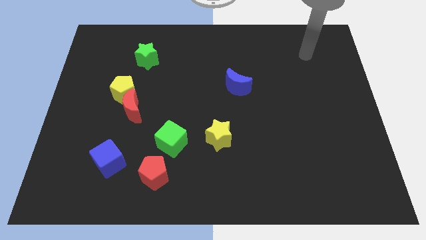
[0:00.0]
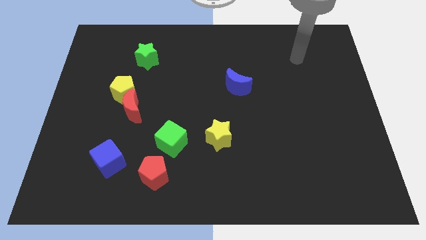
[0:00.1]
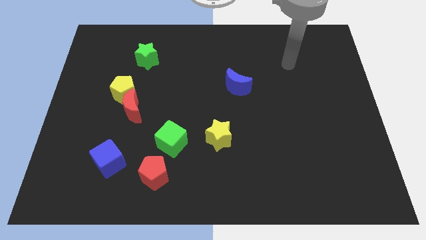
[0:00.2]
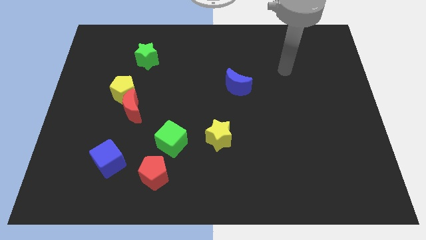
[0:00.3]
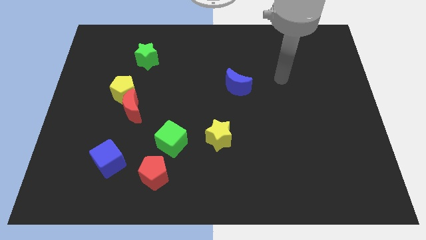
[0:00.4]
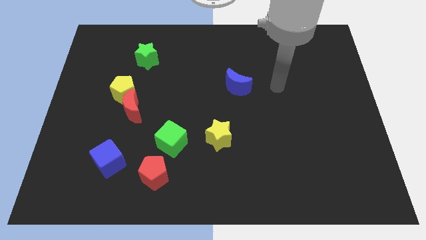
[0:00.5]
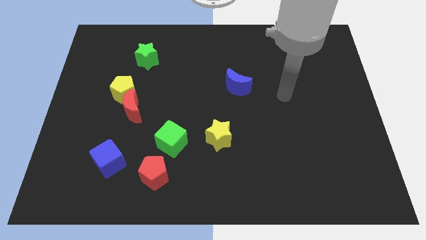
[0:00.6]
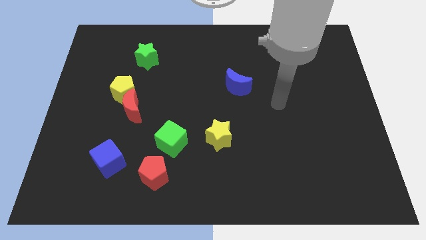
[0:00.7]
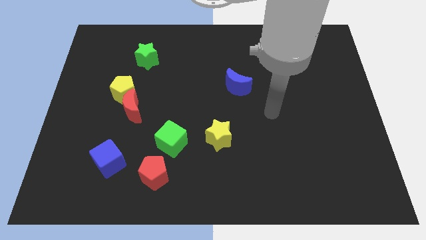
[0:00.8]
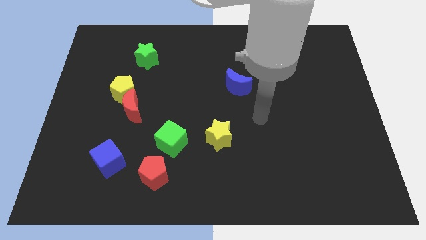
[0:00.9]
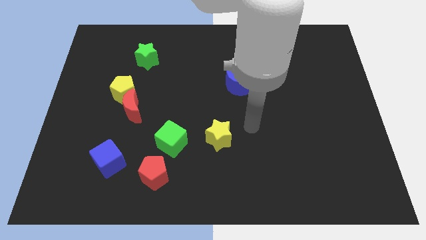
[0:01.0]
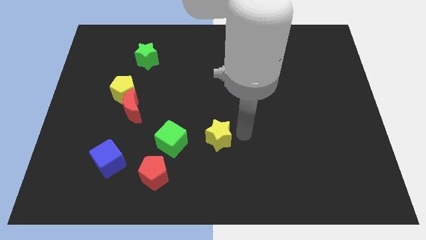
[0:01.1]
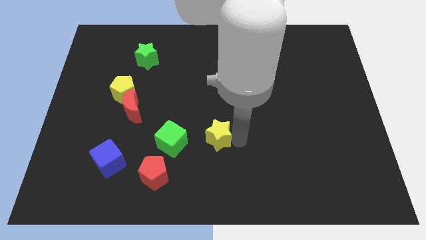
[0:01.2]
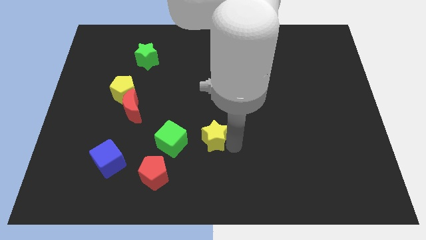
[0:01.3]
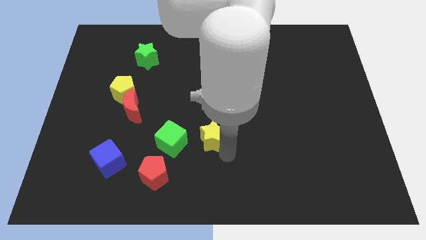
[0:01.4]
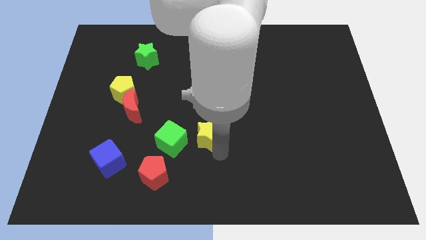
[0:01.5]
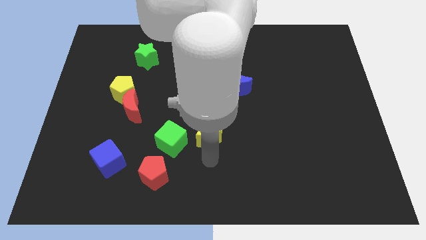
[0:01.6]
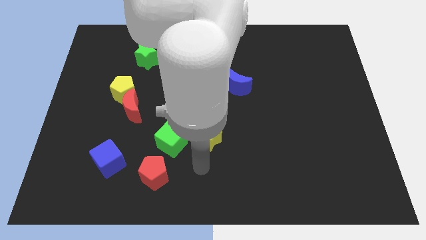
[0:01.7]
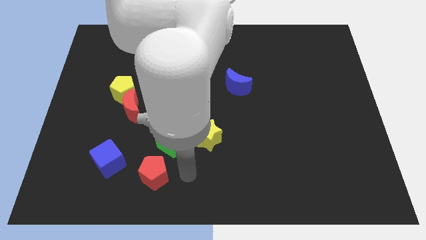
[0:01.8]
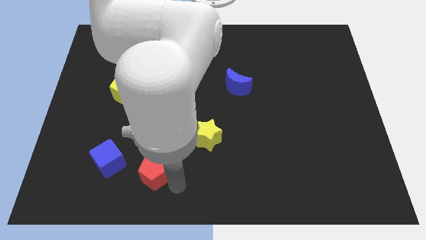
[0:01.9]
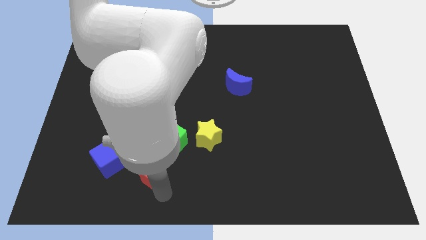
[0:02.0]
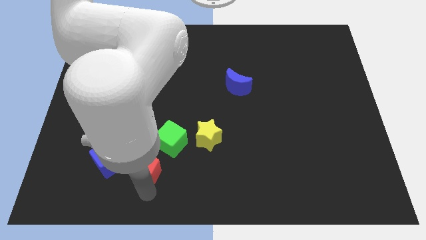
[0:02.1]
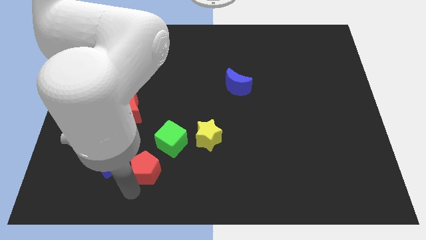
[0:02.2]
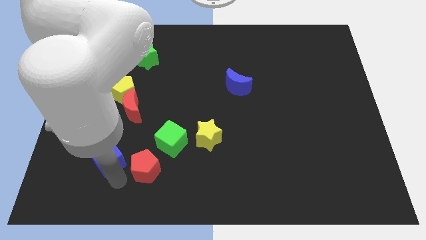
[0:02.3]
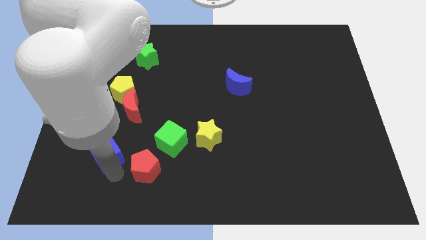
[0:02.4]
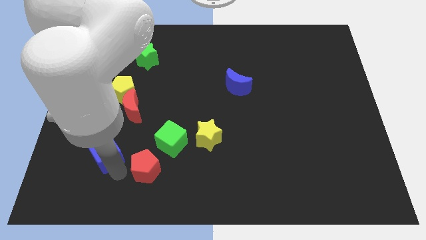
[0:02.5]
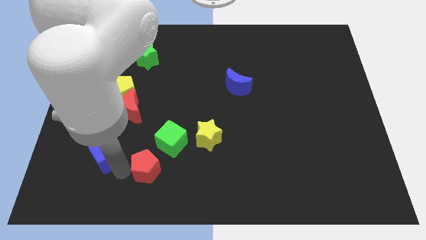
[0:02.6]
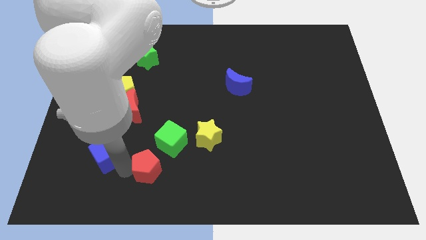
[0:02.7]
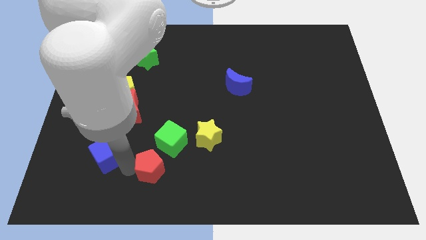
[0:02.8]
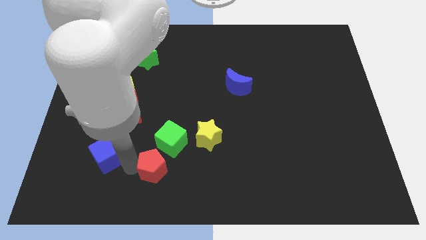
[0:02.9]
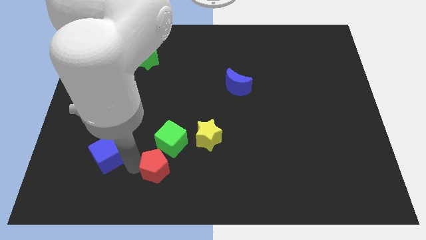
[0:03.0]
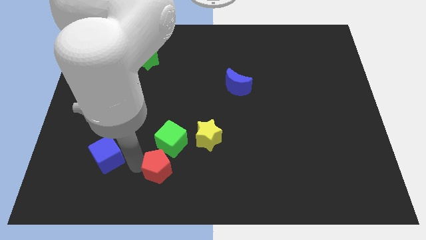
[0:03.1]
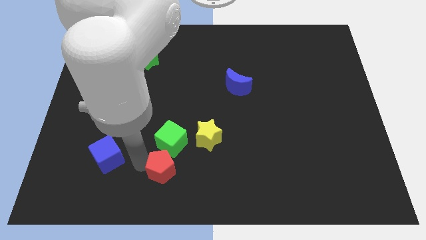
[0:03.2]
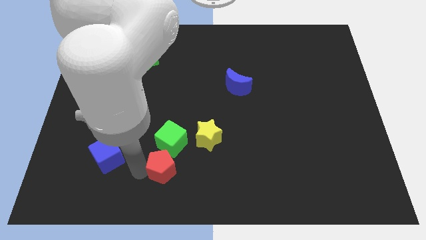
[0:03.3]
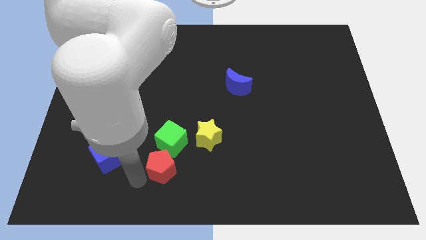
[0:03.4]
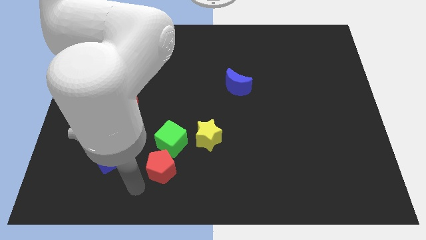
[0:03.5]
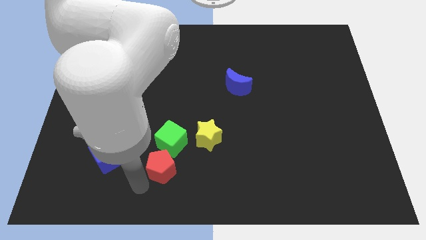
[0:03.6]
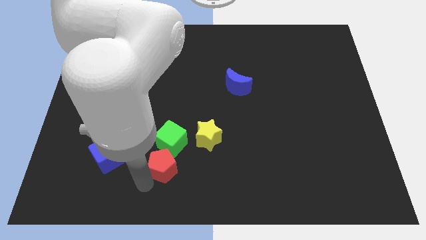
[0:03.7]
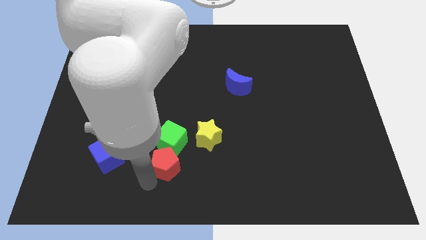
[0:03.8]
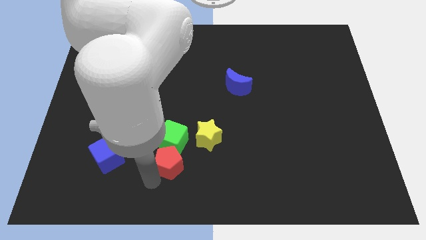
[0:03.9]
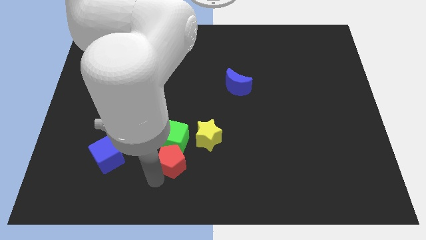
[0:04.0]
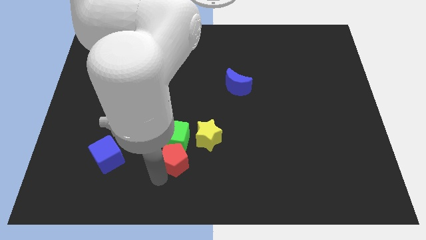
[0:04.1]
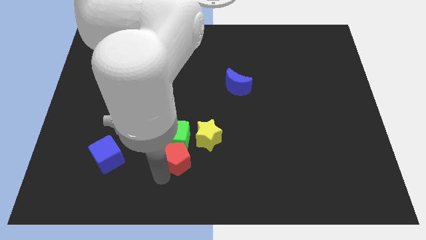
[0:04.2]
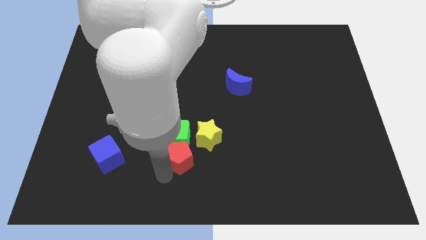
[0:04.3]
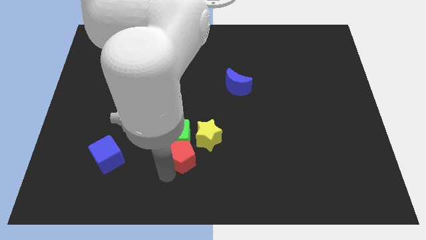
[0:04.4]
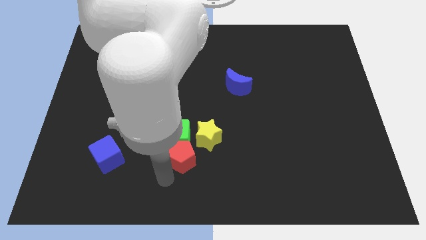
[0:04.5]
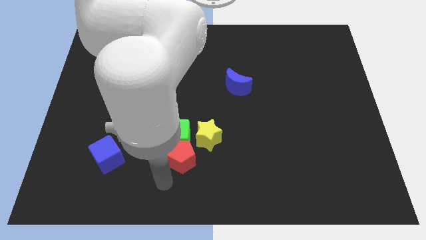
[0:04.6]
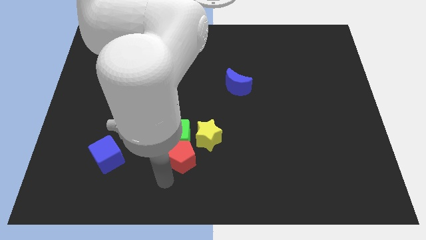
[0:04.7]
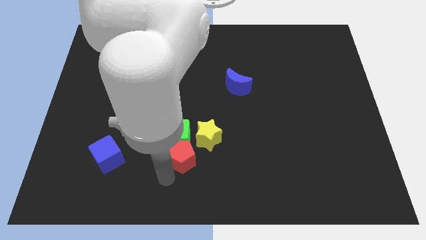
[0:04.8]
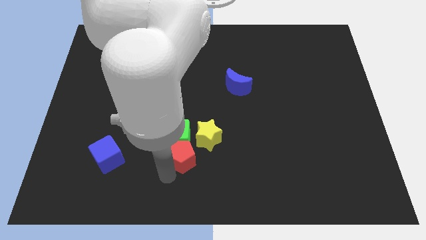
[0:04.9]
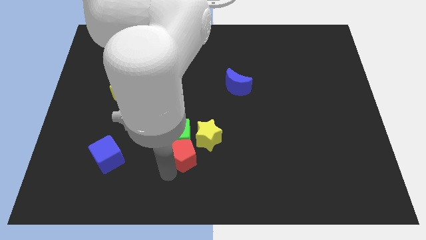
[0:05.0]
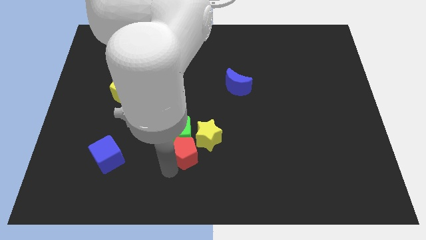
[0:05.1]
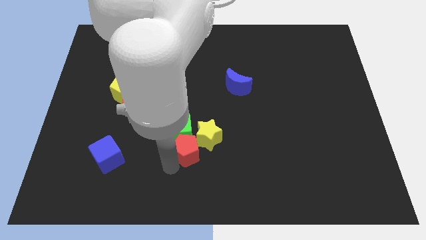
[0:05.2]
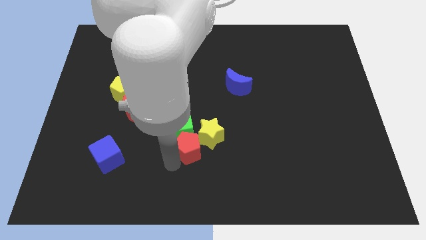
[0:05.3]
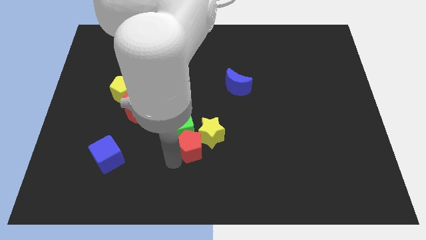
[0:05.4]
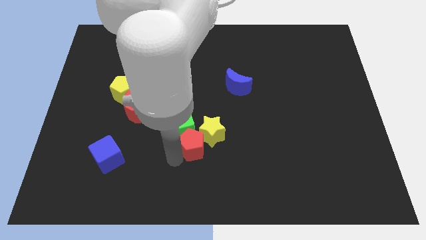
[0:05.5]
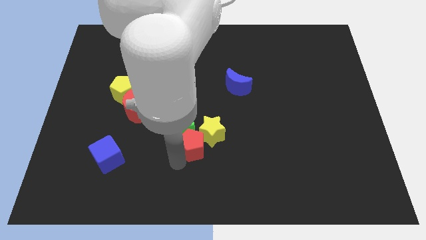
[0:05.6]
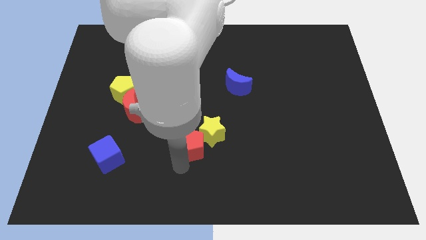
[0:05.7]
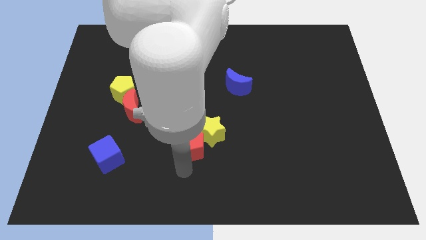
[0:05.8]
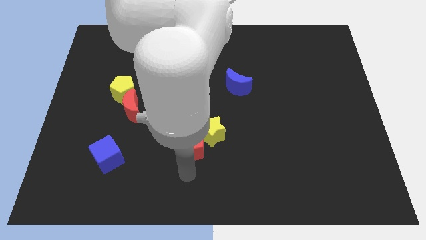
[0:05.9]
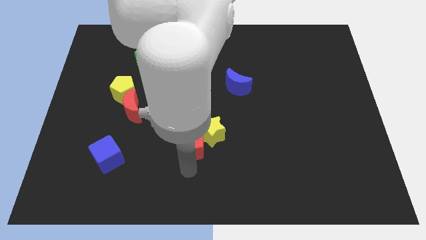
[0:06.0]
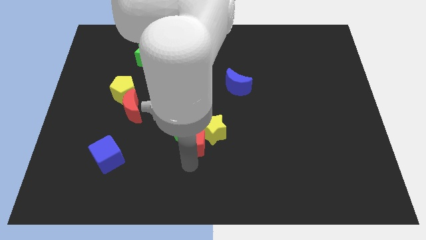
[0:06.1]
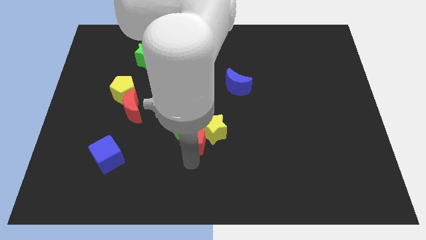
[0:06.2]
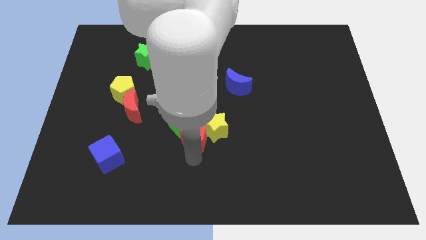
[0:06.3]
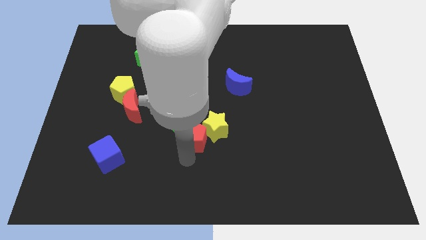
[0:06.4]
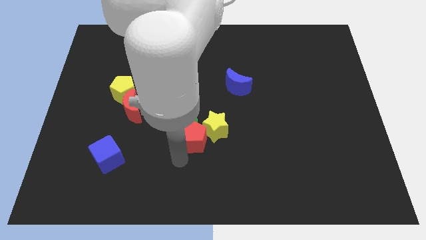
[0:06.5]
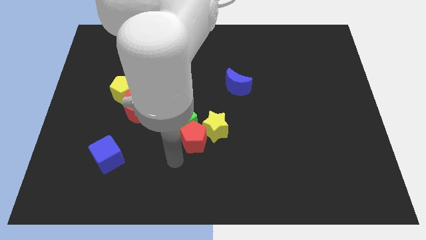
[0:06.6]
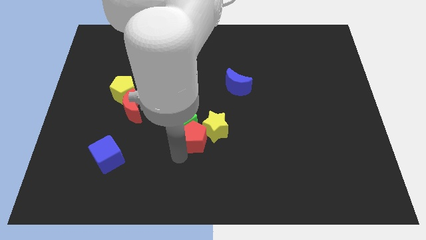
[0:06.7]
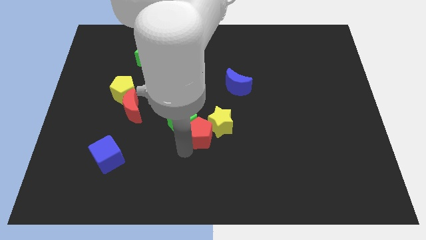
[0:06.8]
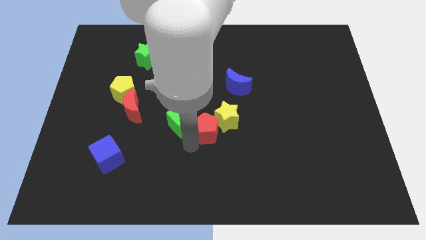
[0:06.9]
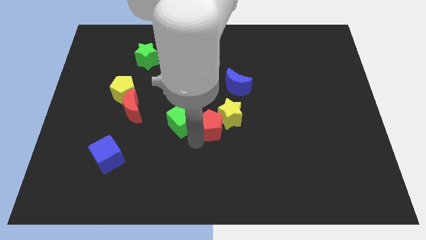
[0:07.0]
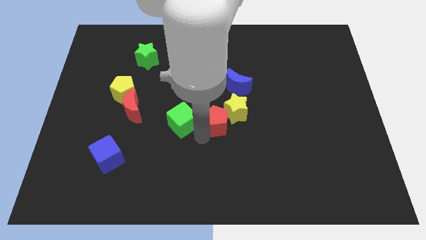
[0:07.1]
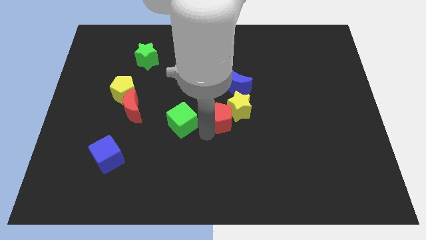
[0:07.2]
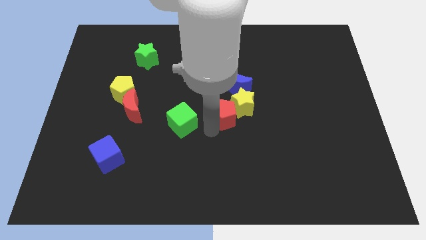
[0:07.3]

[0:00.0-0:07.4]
slide the red pentagon up and then right

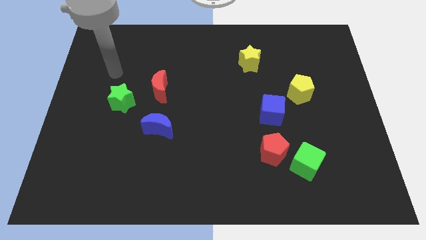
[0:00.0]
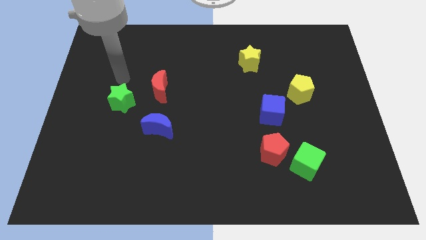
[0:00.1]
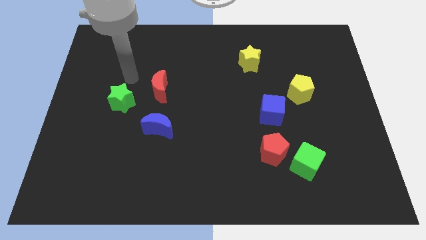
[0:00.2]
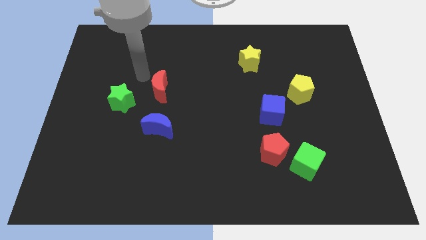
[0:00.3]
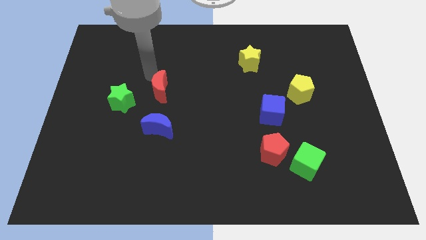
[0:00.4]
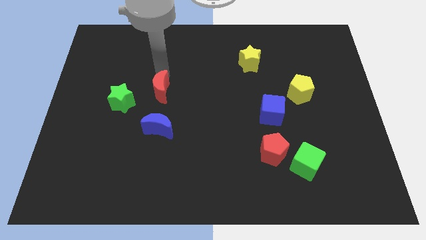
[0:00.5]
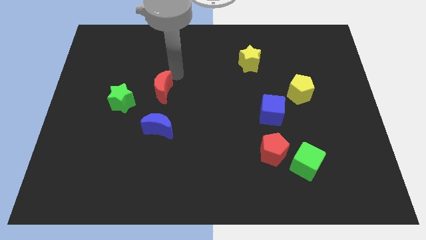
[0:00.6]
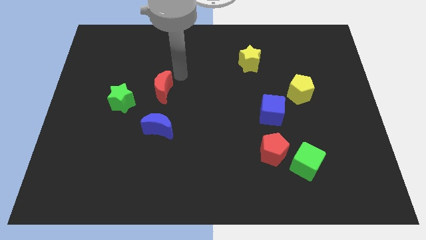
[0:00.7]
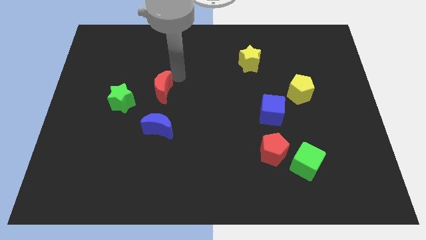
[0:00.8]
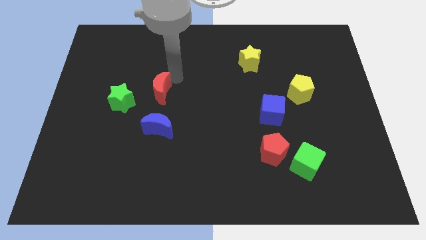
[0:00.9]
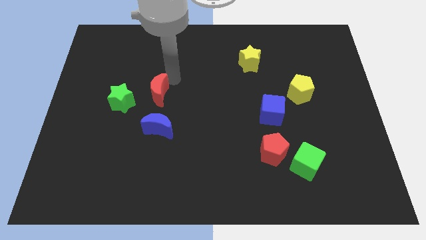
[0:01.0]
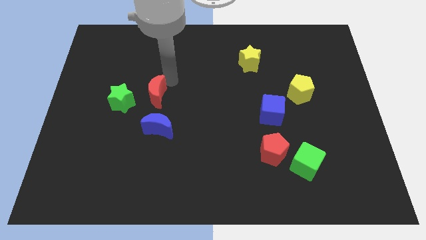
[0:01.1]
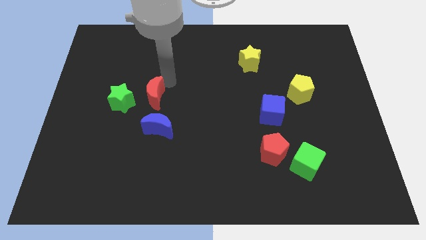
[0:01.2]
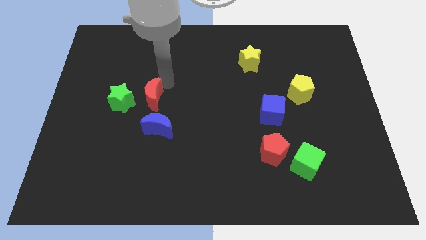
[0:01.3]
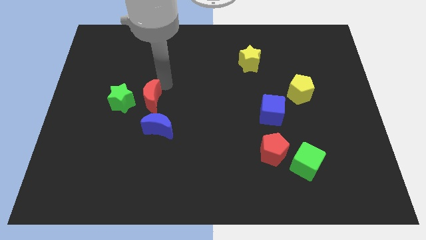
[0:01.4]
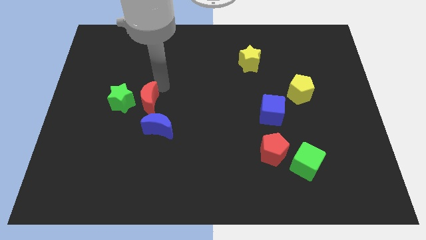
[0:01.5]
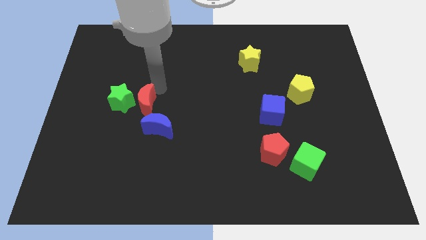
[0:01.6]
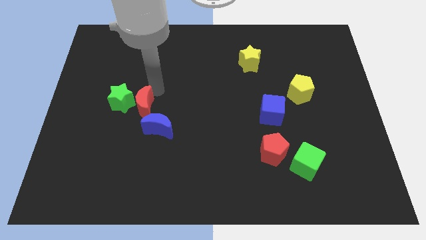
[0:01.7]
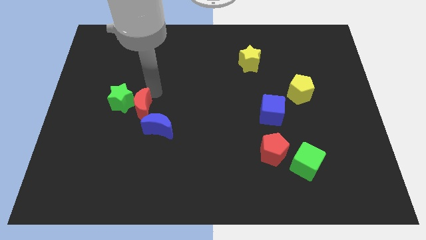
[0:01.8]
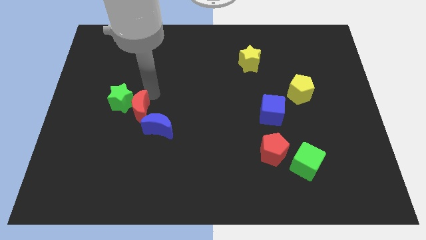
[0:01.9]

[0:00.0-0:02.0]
slightly move the red moon downwards and then left
